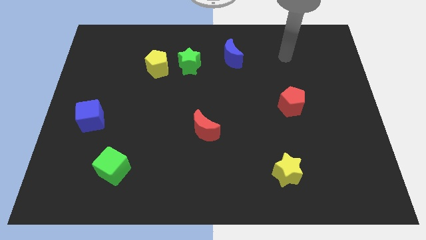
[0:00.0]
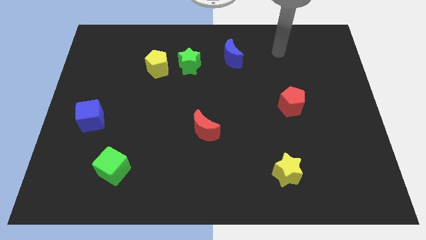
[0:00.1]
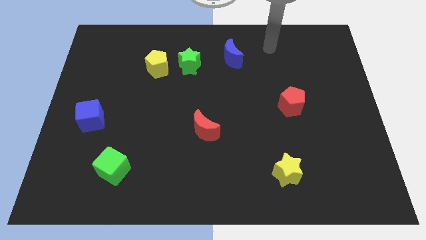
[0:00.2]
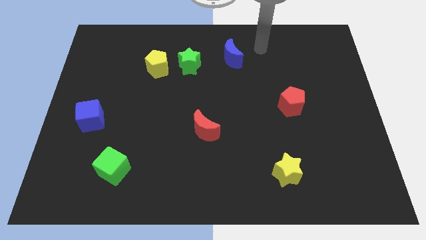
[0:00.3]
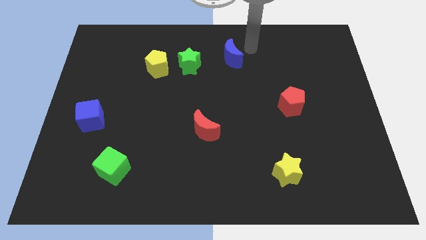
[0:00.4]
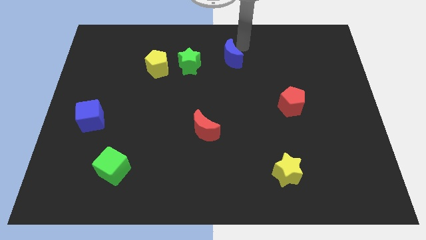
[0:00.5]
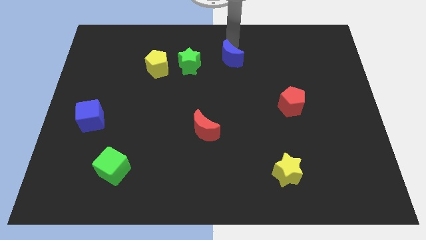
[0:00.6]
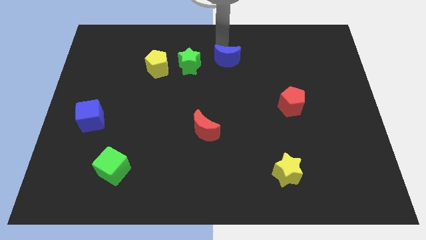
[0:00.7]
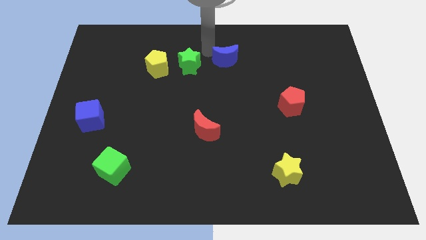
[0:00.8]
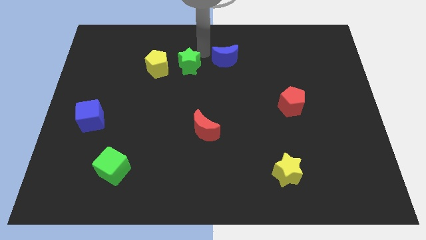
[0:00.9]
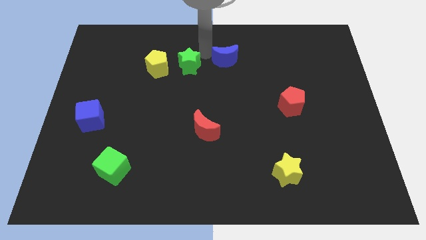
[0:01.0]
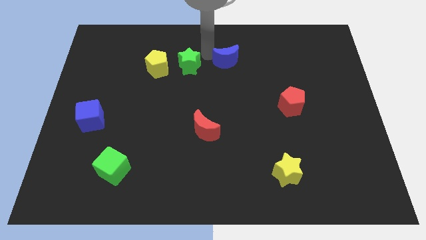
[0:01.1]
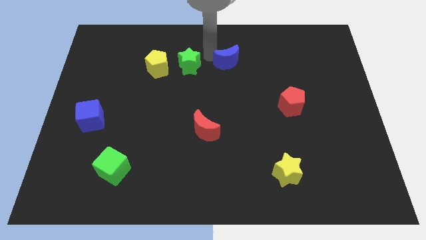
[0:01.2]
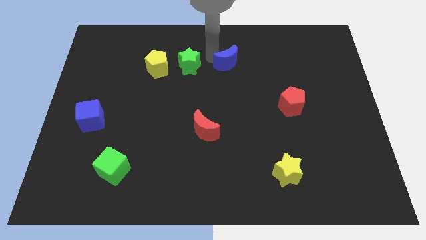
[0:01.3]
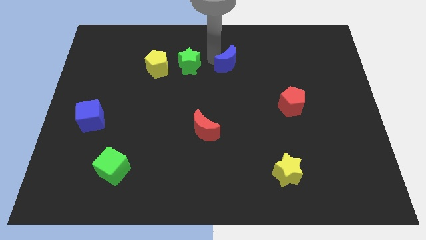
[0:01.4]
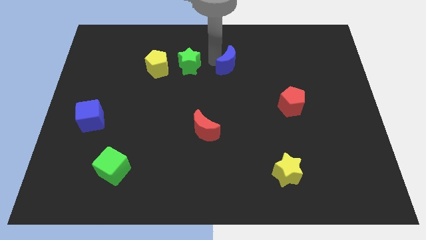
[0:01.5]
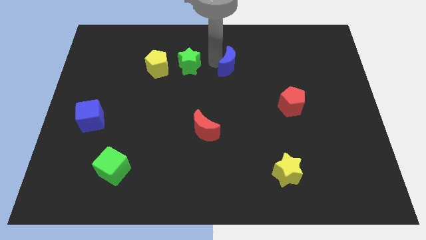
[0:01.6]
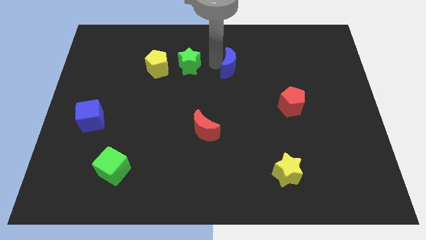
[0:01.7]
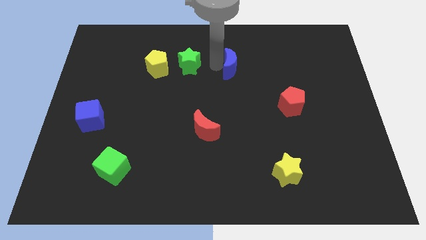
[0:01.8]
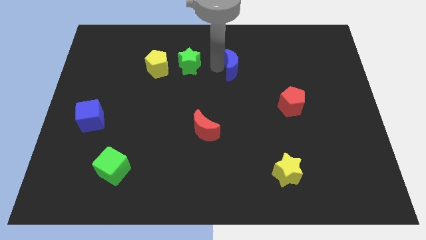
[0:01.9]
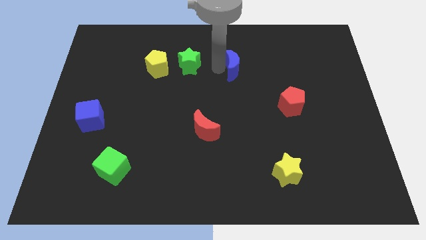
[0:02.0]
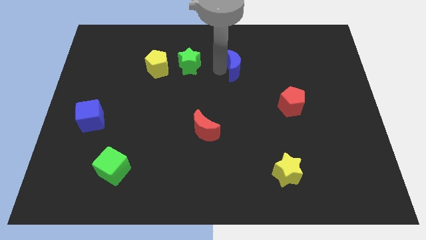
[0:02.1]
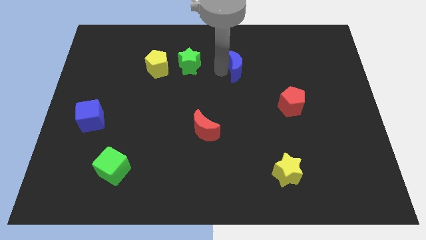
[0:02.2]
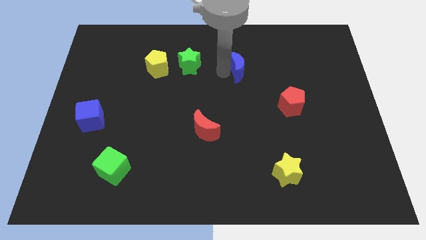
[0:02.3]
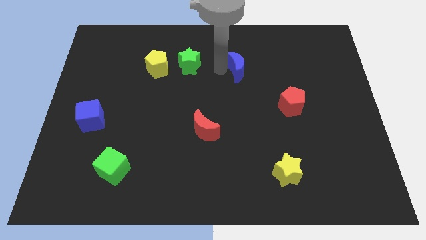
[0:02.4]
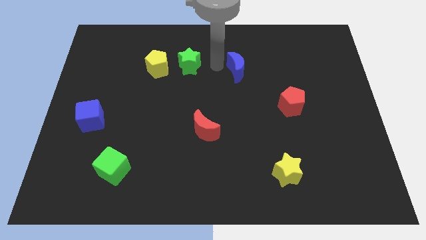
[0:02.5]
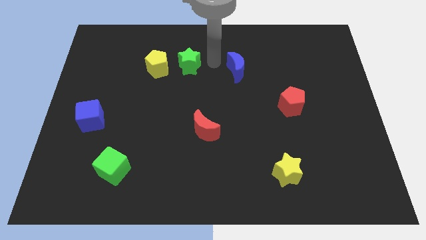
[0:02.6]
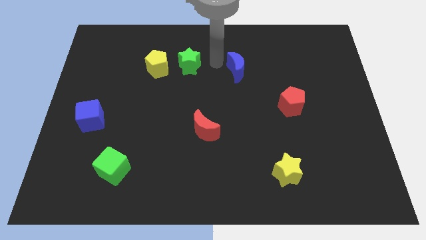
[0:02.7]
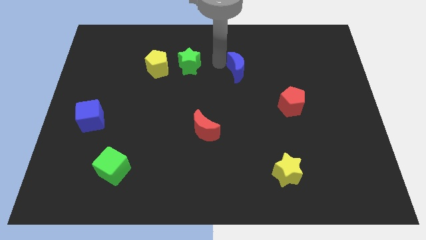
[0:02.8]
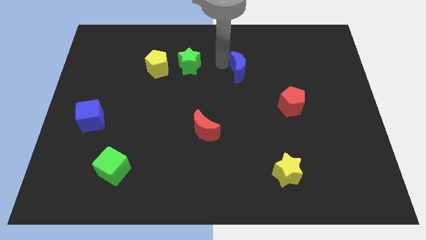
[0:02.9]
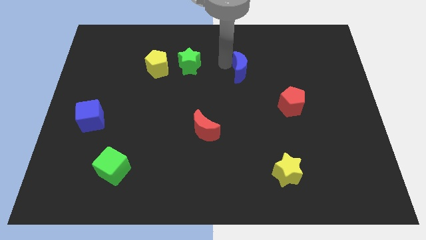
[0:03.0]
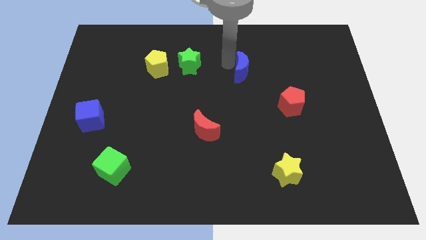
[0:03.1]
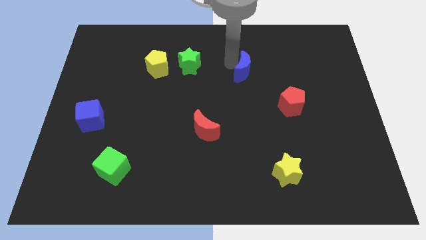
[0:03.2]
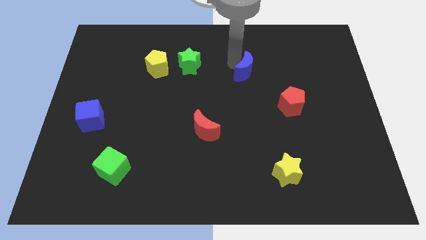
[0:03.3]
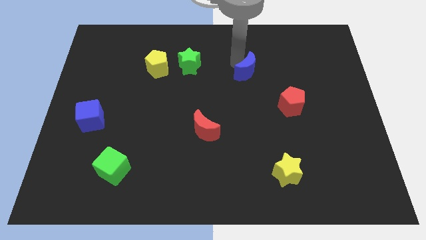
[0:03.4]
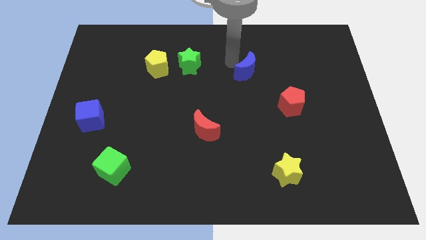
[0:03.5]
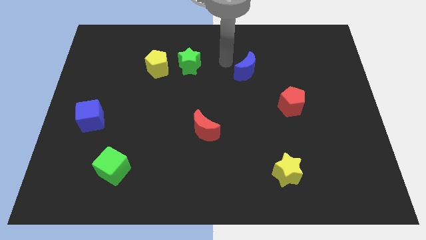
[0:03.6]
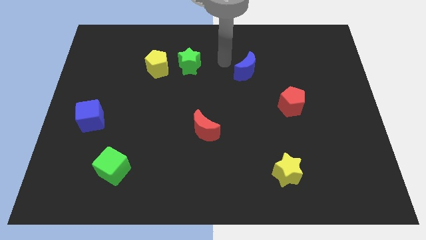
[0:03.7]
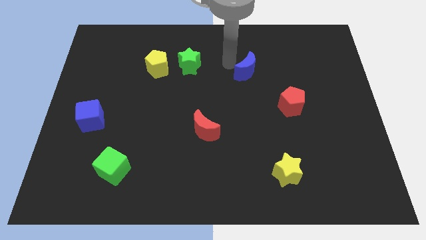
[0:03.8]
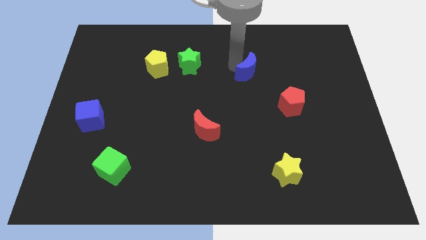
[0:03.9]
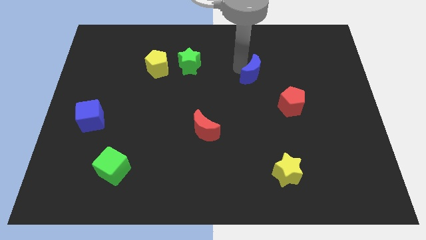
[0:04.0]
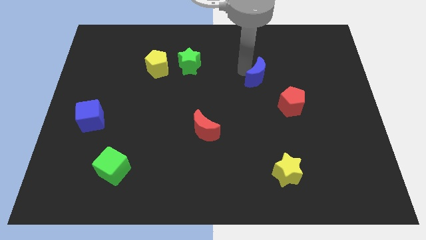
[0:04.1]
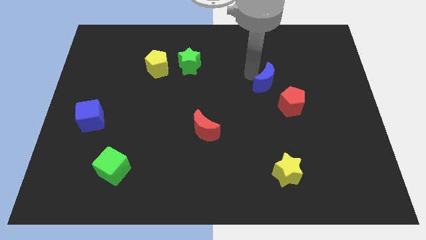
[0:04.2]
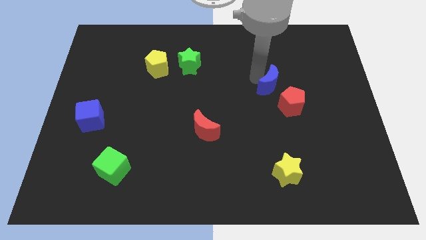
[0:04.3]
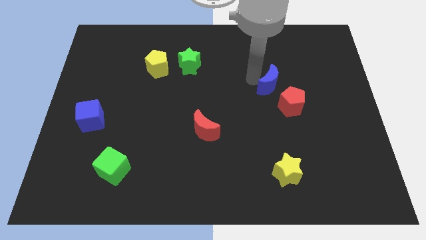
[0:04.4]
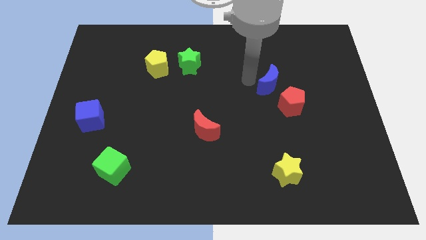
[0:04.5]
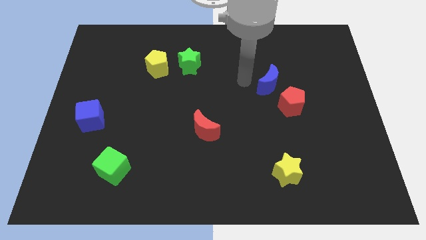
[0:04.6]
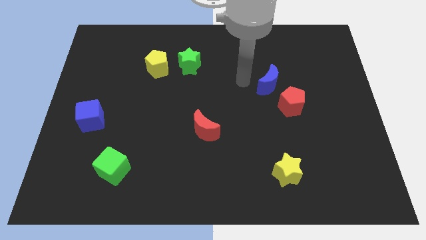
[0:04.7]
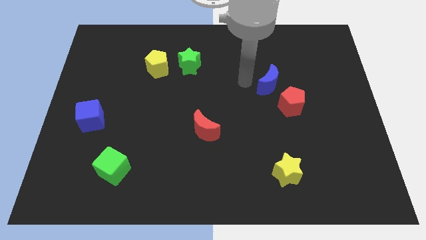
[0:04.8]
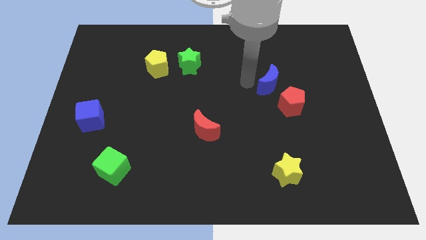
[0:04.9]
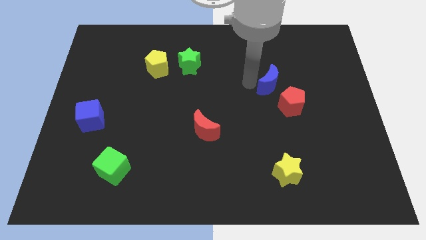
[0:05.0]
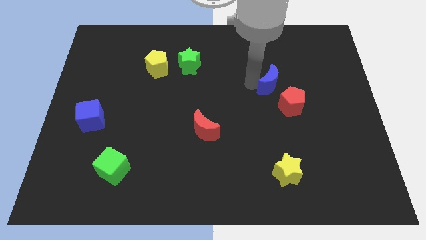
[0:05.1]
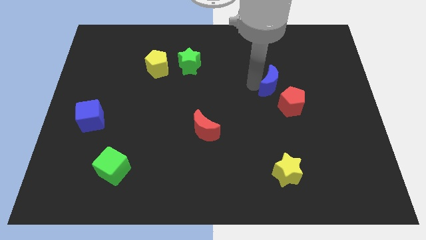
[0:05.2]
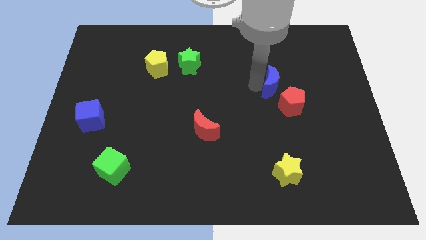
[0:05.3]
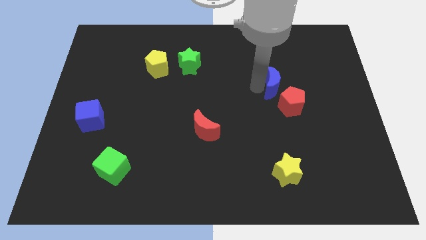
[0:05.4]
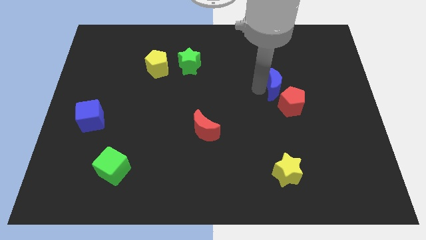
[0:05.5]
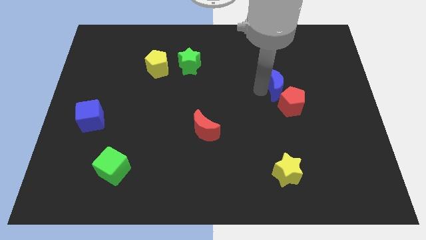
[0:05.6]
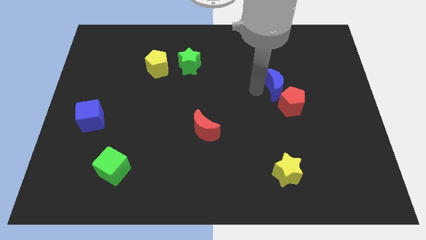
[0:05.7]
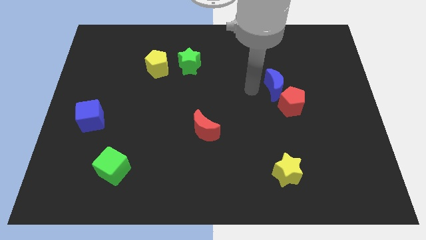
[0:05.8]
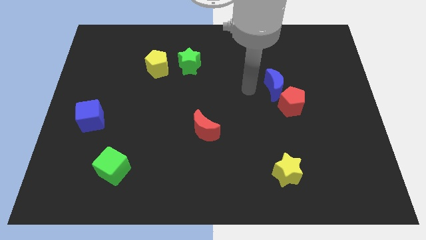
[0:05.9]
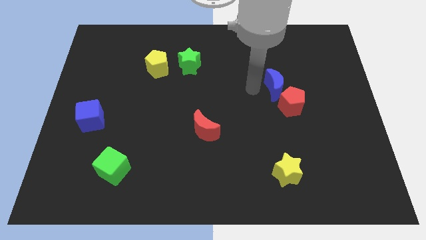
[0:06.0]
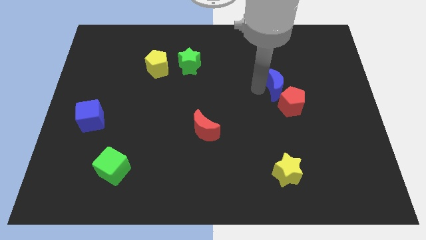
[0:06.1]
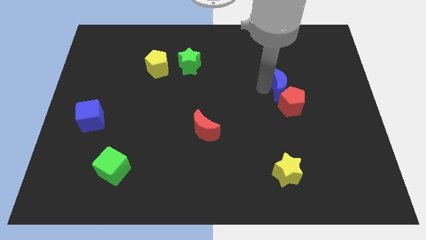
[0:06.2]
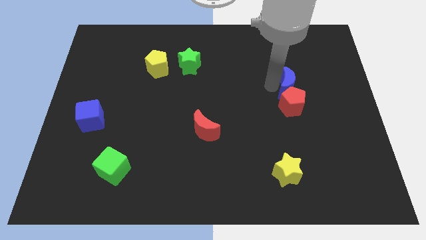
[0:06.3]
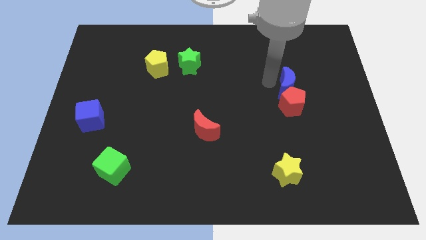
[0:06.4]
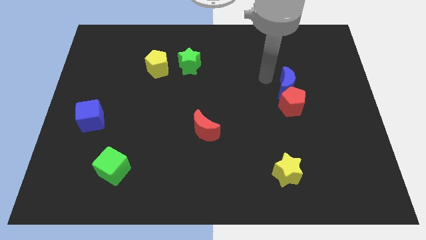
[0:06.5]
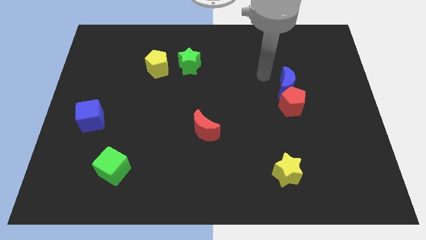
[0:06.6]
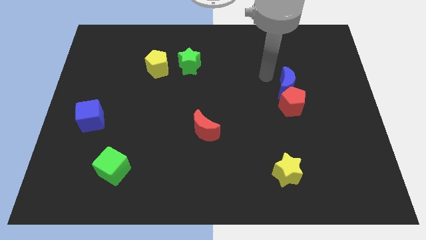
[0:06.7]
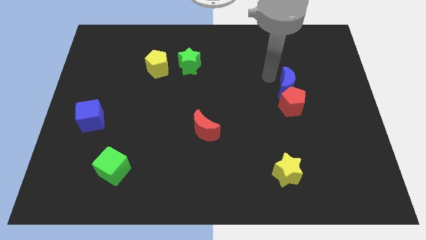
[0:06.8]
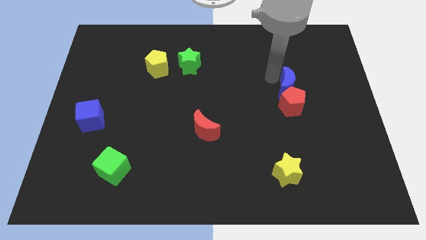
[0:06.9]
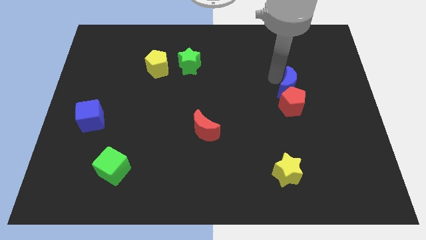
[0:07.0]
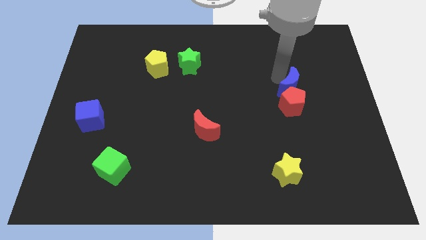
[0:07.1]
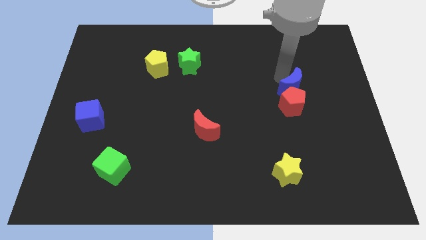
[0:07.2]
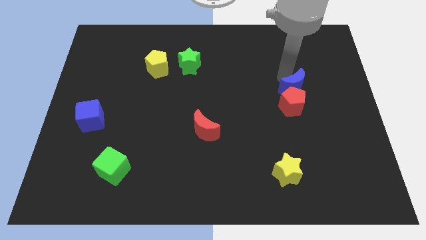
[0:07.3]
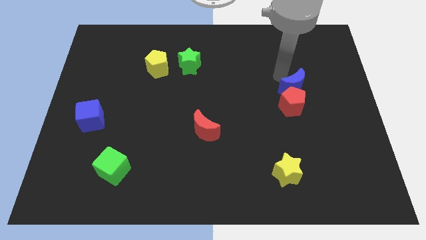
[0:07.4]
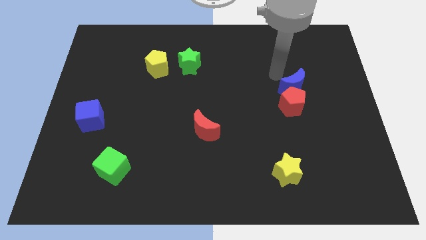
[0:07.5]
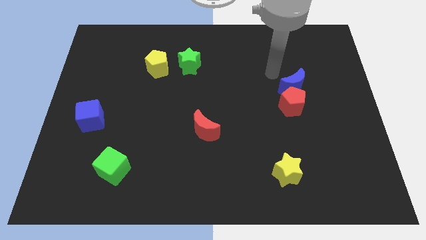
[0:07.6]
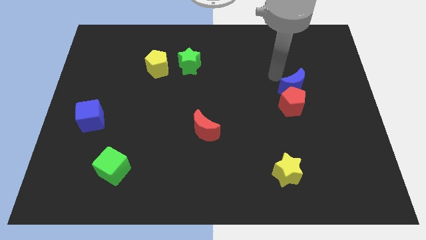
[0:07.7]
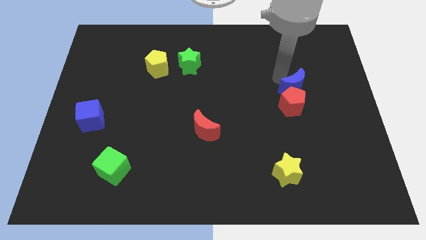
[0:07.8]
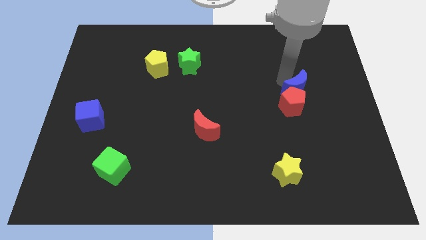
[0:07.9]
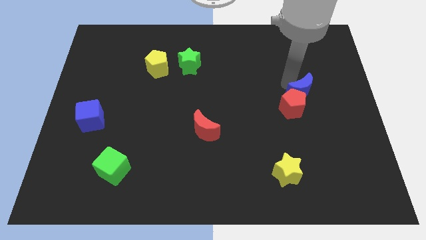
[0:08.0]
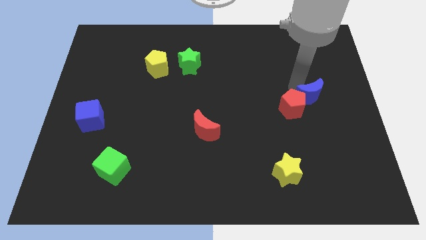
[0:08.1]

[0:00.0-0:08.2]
slide the blue moon diagonally downwards and right
